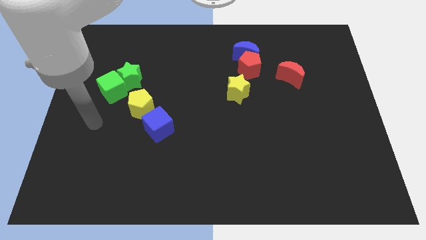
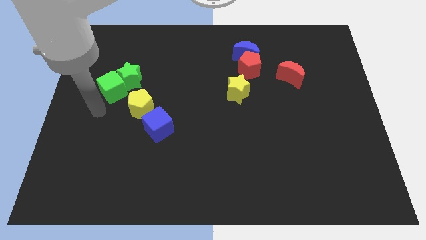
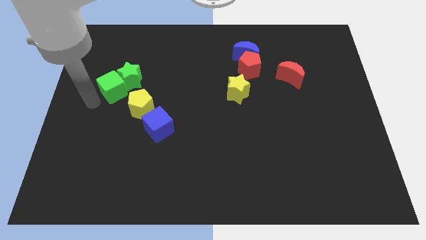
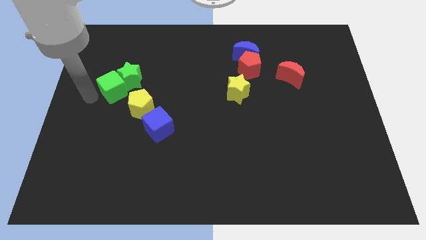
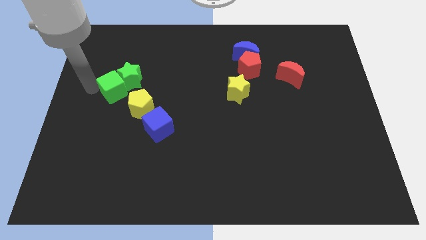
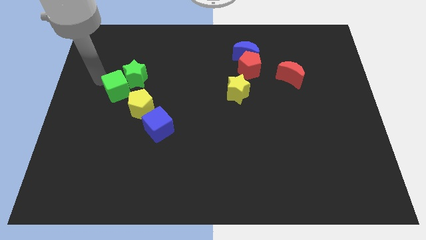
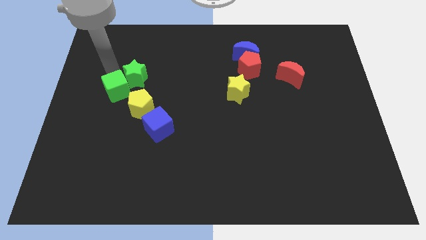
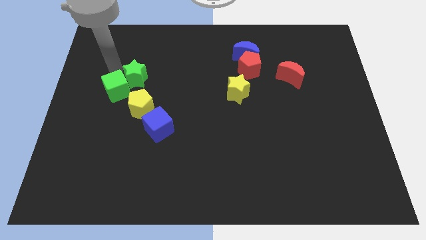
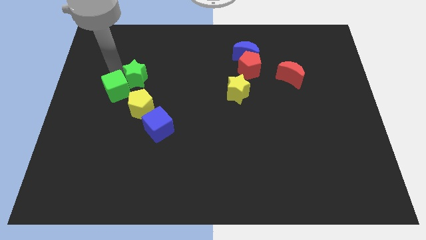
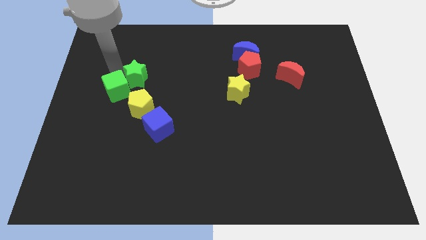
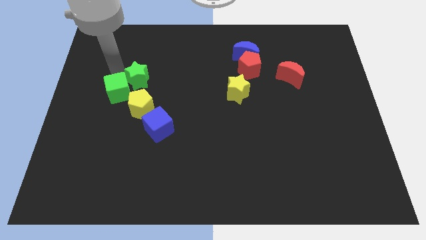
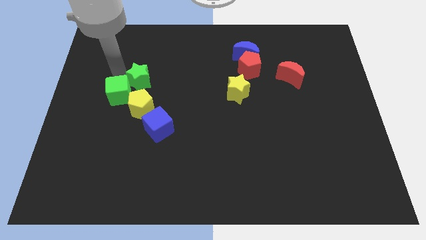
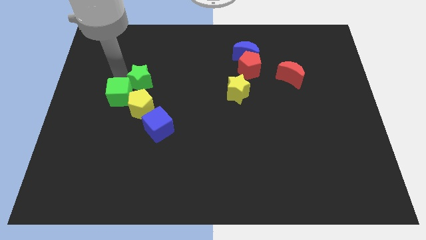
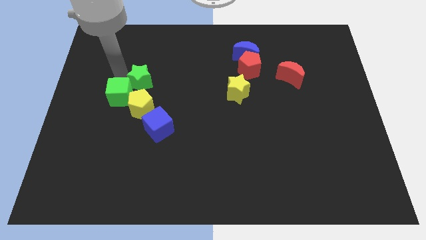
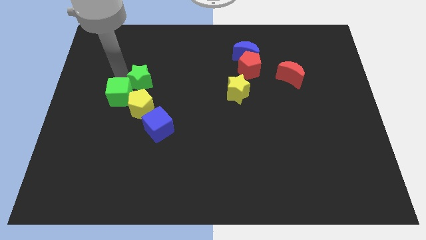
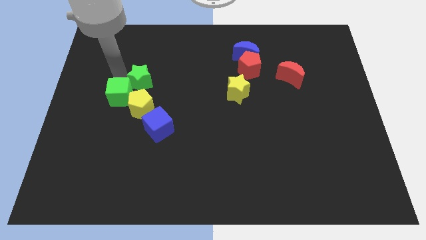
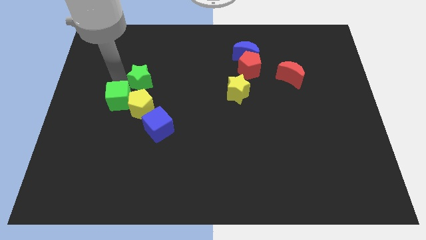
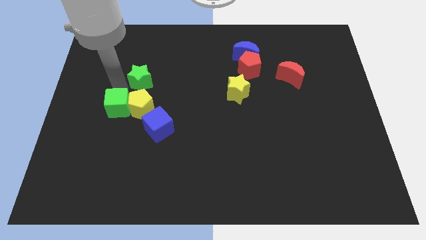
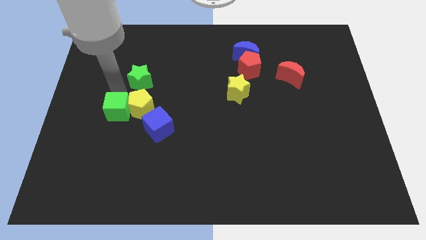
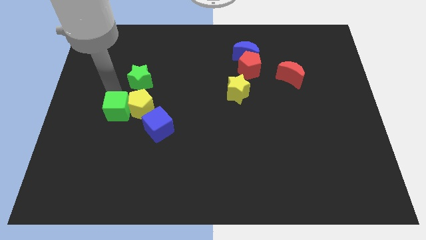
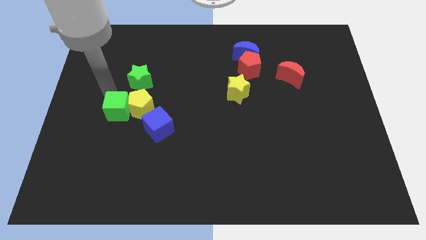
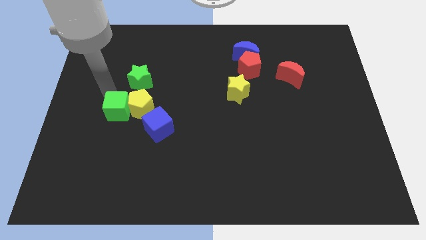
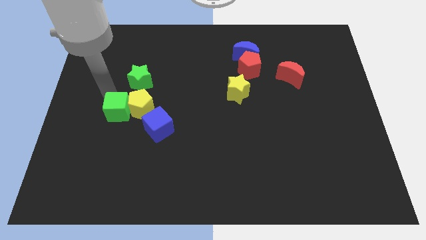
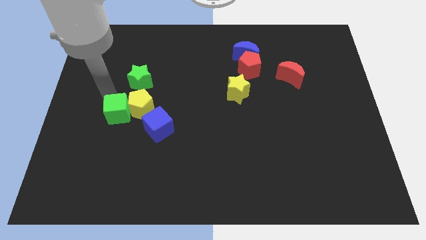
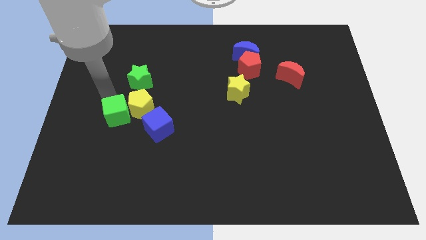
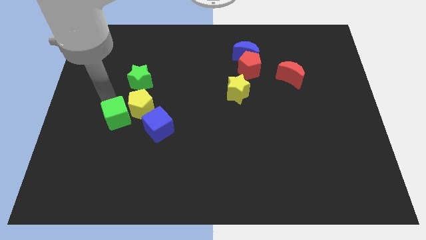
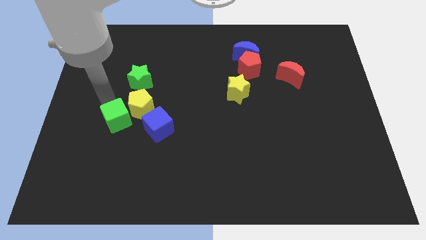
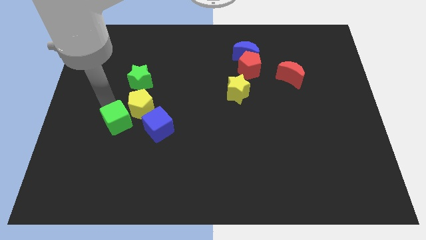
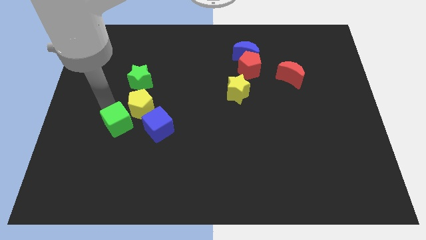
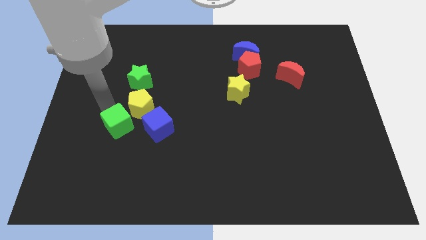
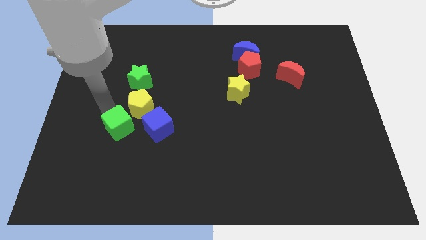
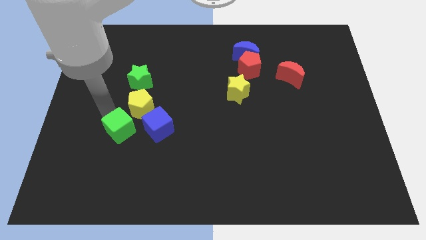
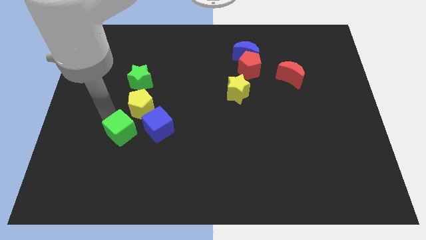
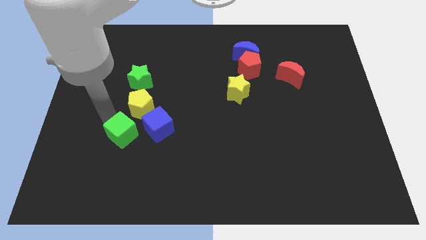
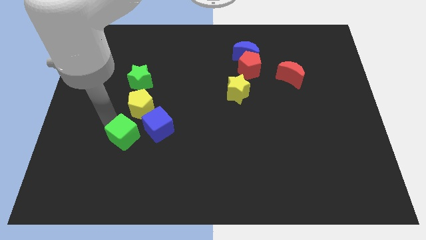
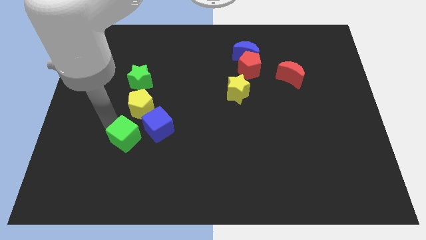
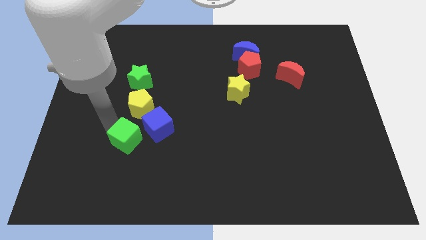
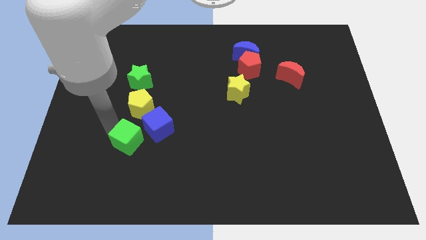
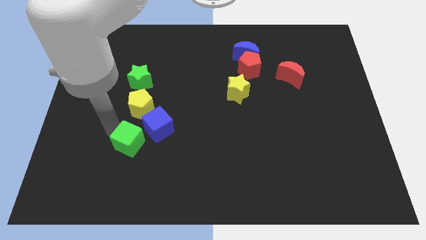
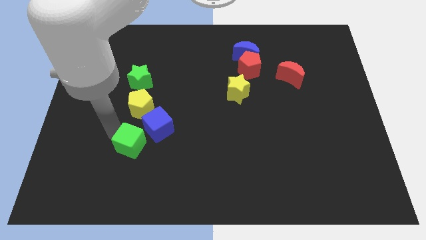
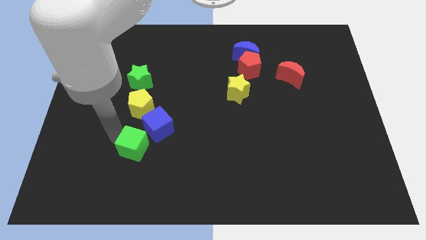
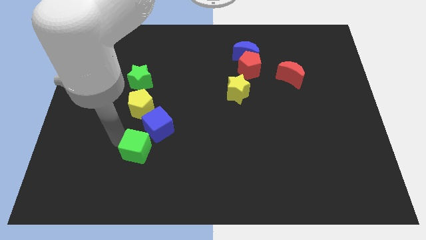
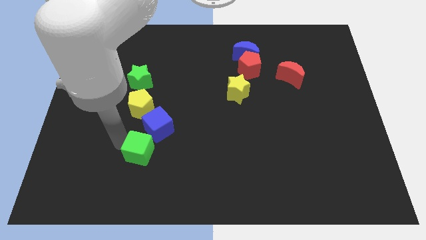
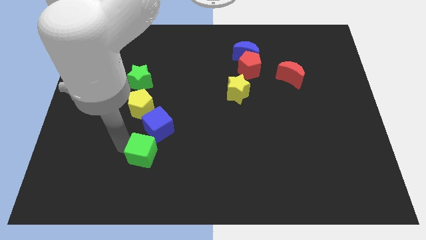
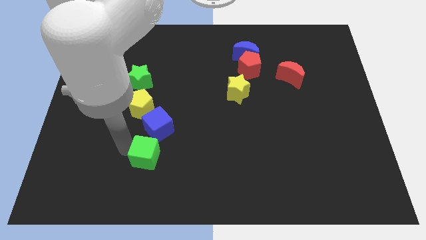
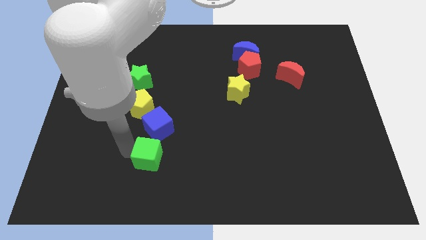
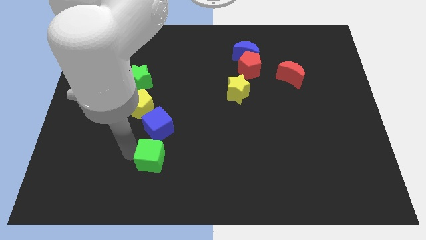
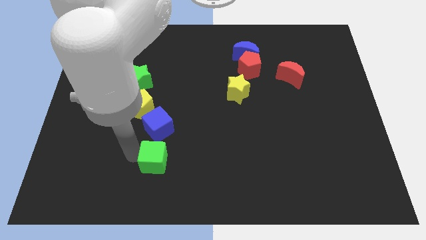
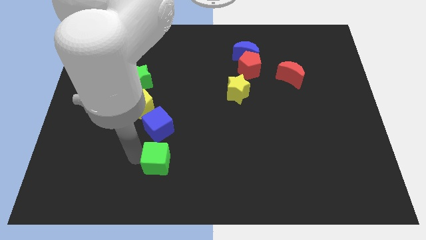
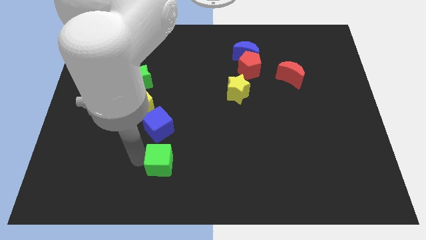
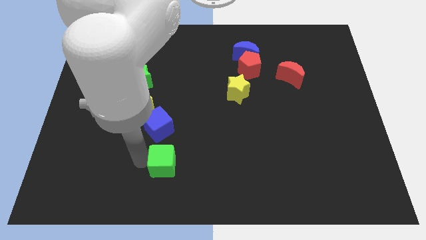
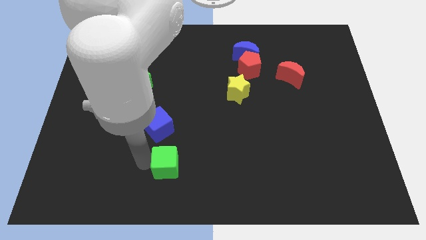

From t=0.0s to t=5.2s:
push the green cube to the bottom right of the blue cube

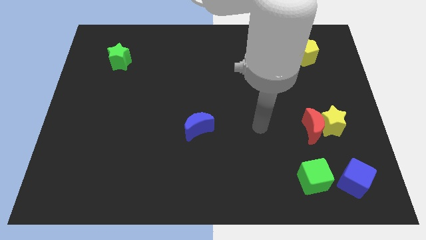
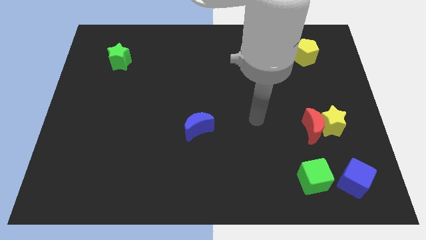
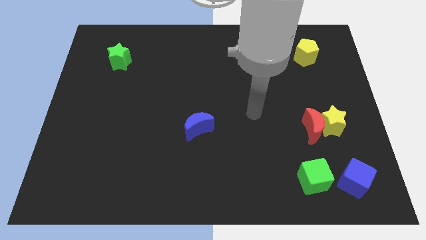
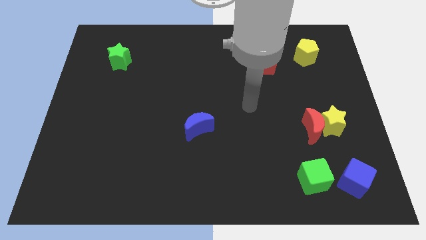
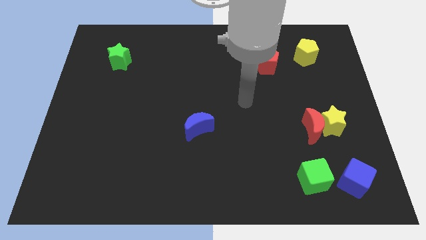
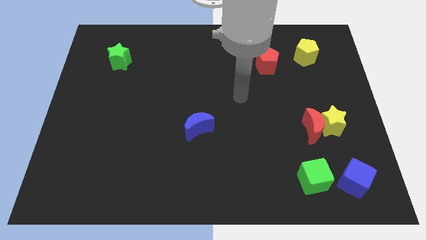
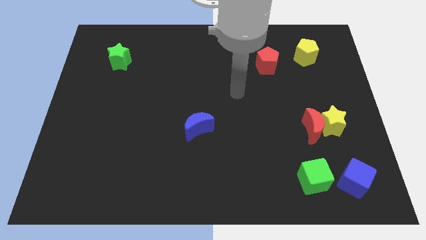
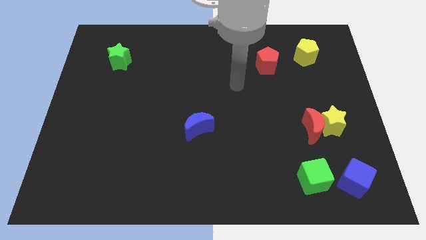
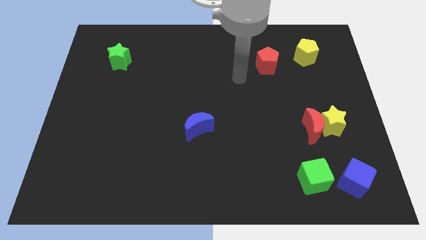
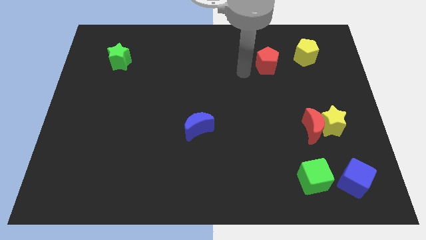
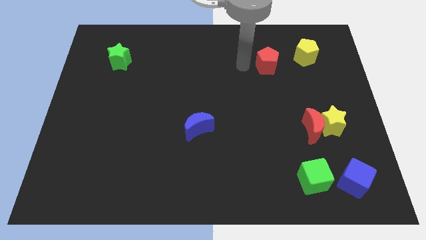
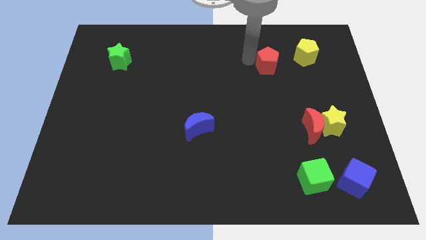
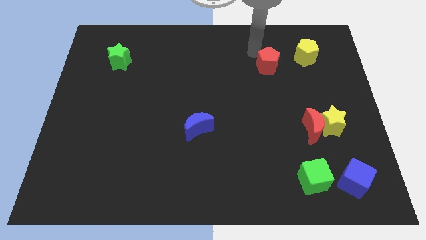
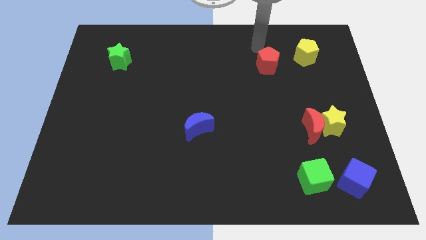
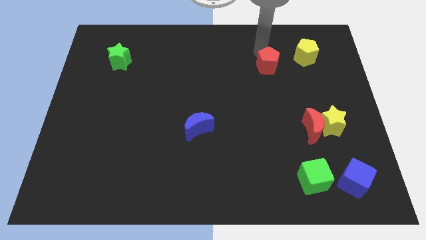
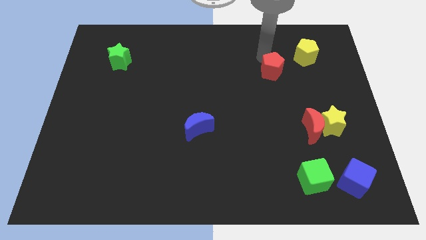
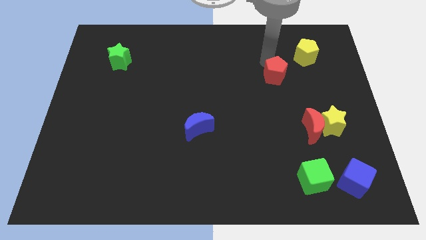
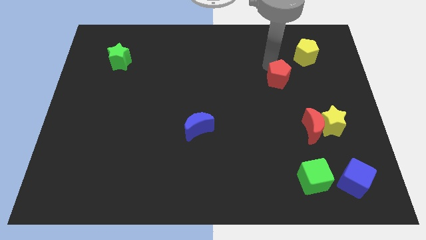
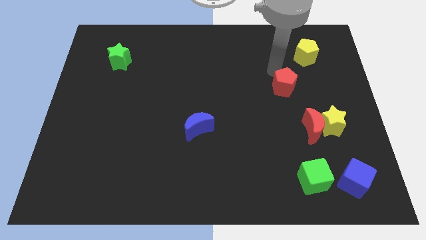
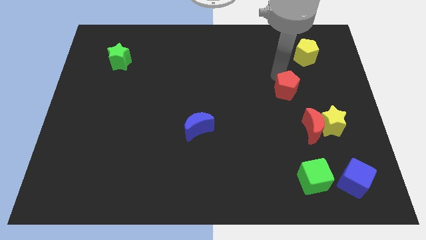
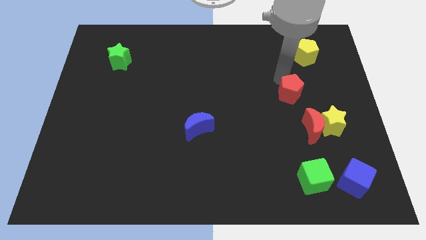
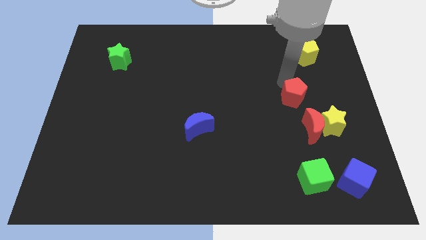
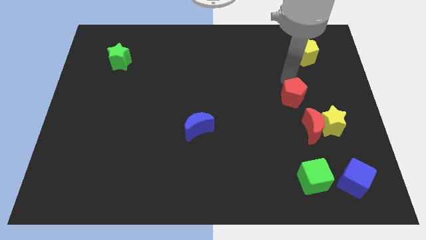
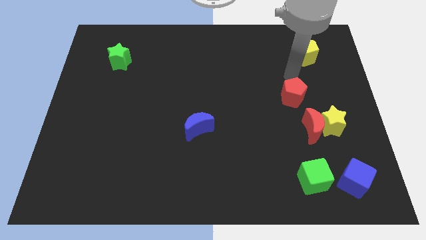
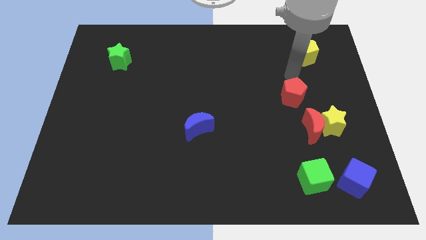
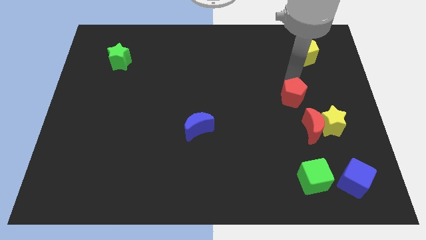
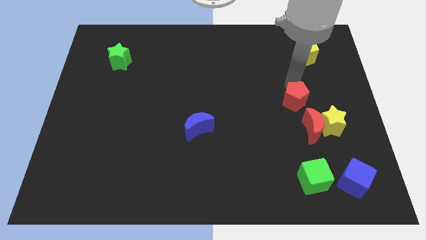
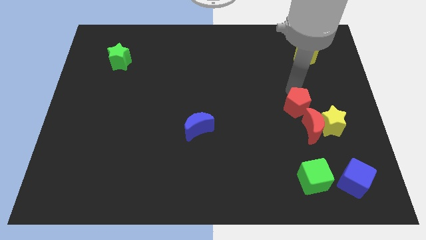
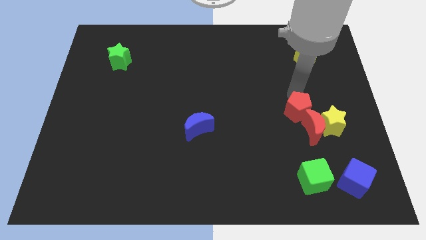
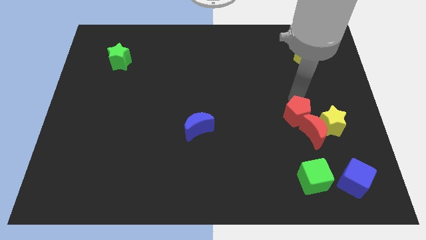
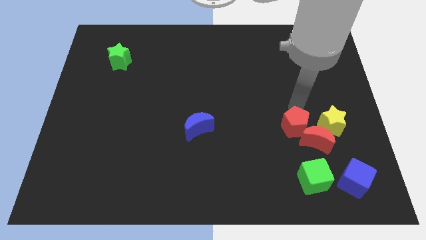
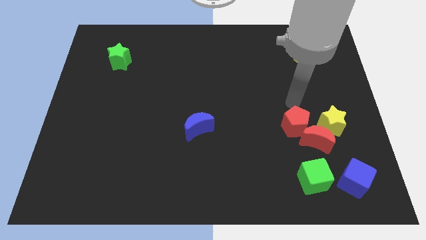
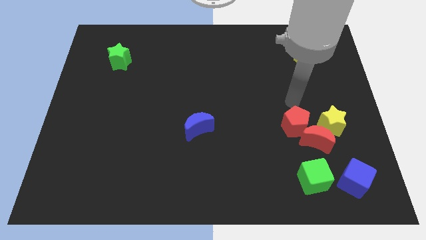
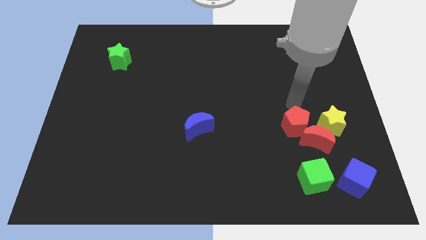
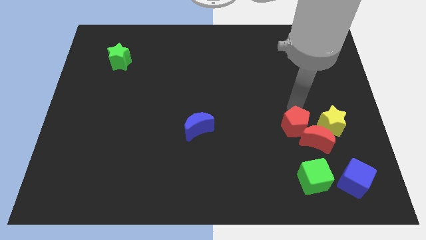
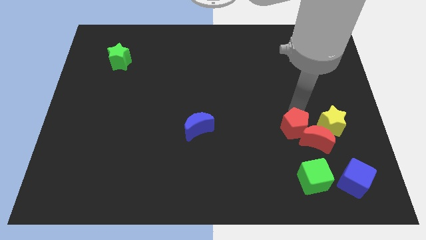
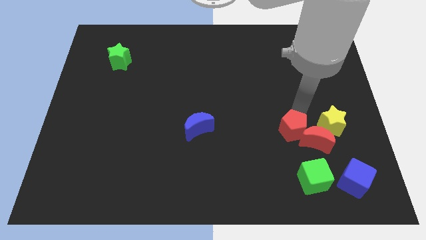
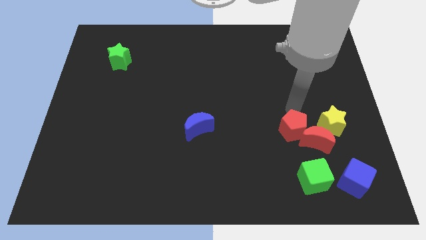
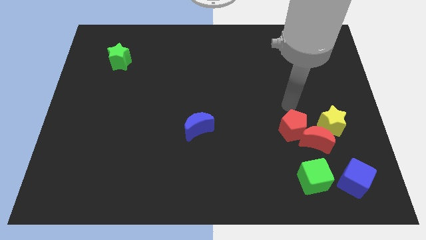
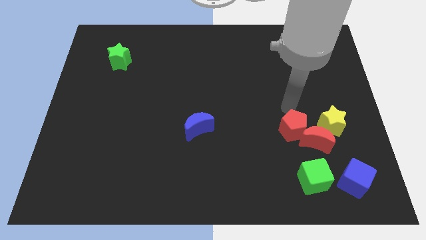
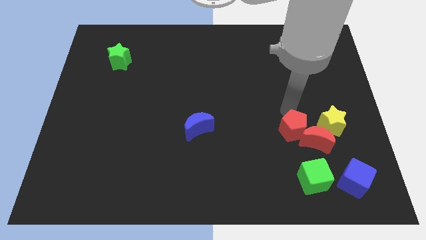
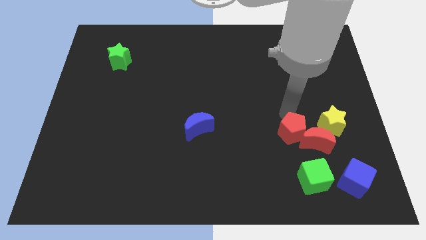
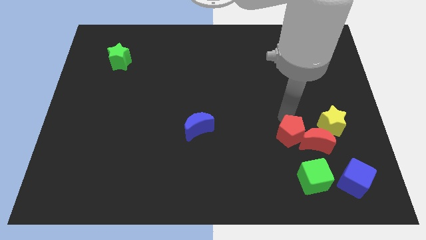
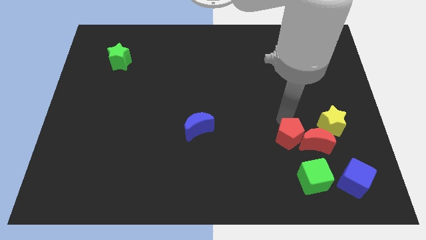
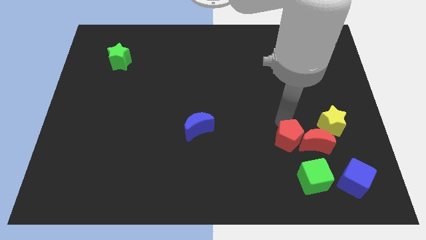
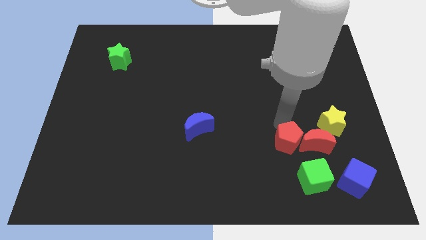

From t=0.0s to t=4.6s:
push the red pentagon diagonally down and to the left of the red moon
